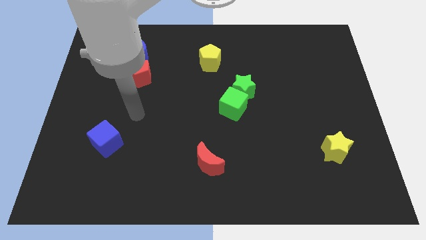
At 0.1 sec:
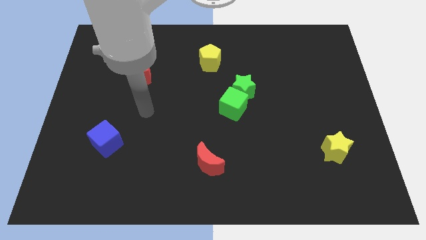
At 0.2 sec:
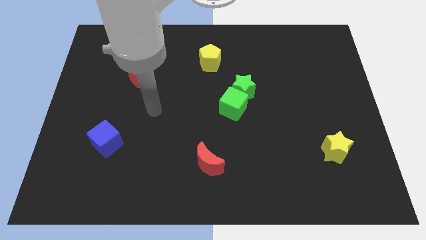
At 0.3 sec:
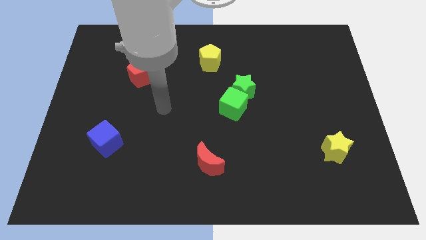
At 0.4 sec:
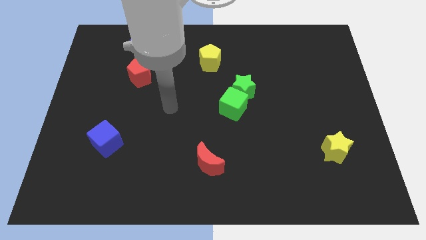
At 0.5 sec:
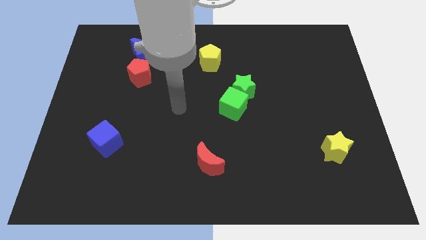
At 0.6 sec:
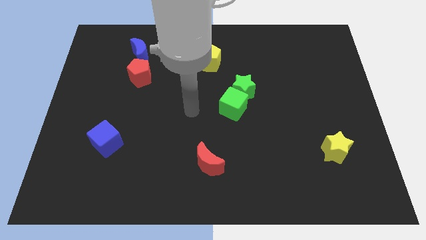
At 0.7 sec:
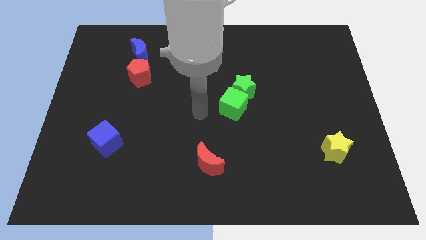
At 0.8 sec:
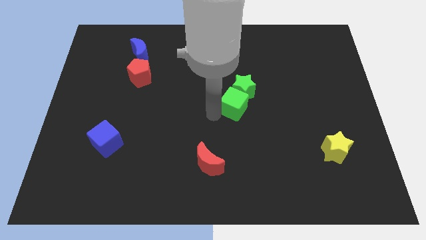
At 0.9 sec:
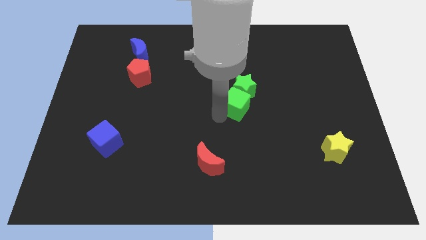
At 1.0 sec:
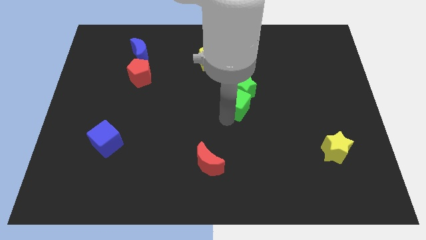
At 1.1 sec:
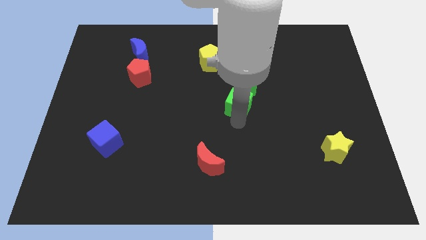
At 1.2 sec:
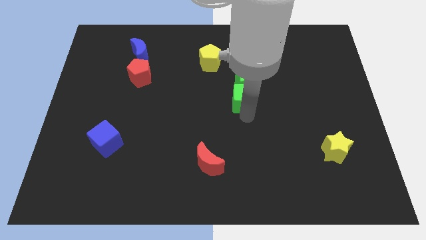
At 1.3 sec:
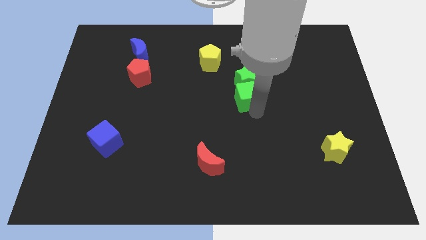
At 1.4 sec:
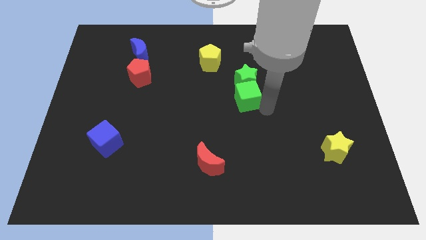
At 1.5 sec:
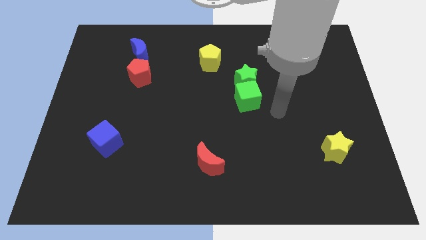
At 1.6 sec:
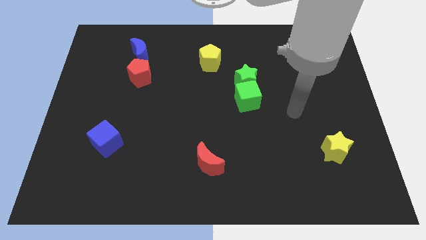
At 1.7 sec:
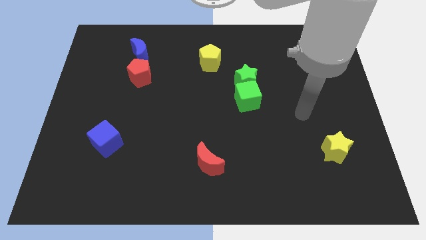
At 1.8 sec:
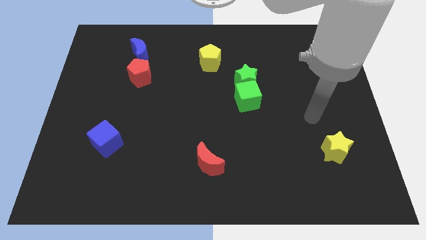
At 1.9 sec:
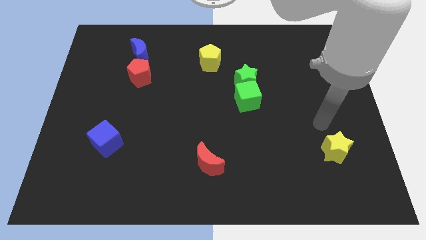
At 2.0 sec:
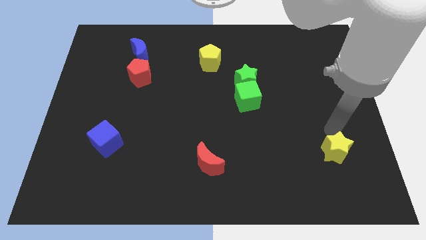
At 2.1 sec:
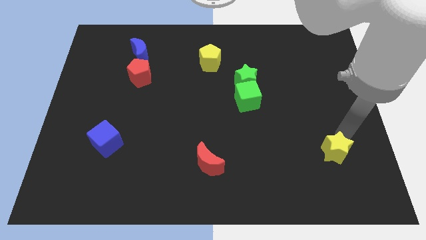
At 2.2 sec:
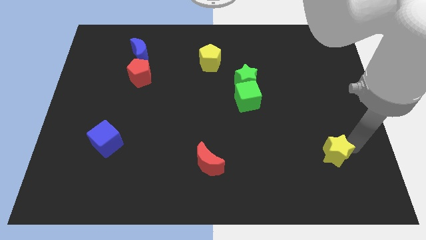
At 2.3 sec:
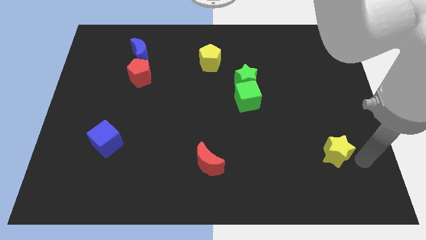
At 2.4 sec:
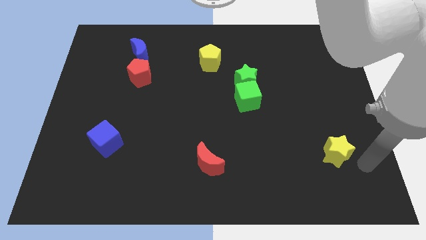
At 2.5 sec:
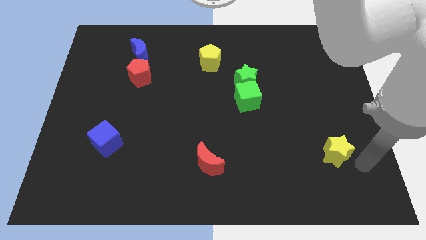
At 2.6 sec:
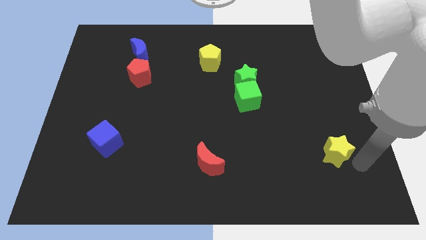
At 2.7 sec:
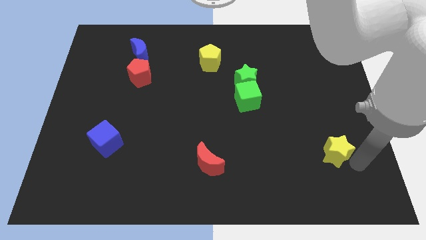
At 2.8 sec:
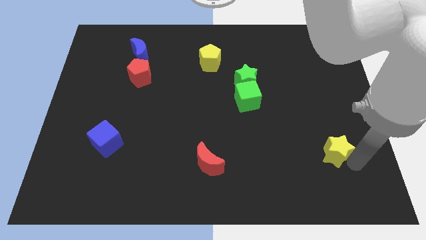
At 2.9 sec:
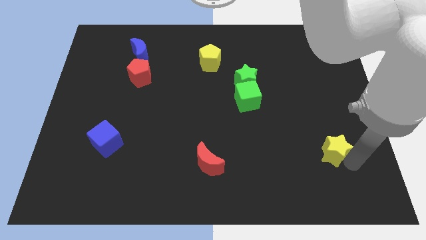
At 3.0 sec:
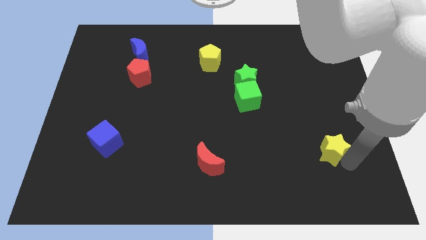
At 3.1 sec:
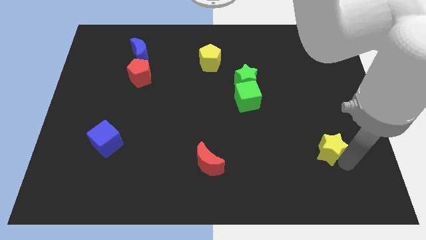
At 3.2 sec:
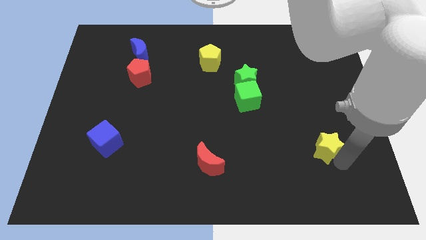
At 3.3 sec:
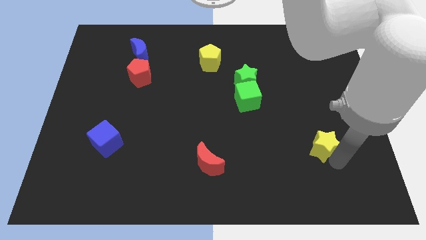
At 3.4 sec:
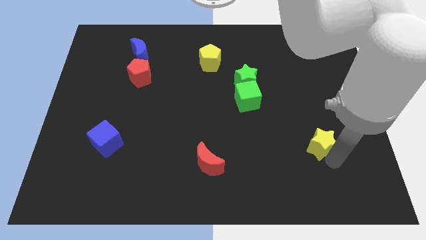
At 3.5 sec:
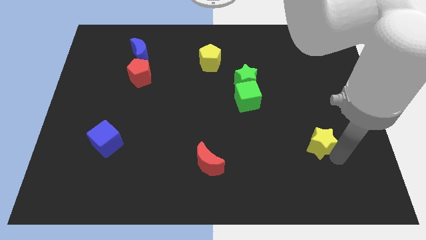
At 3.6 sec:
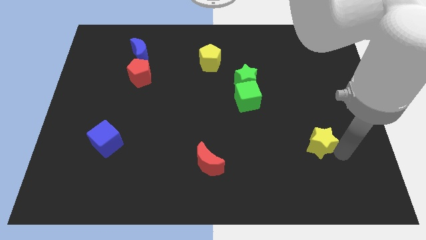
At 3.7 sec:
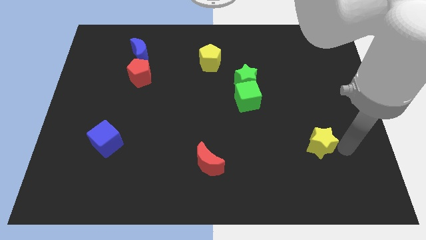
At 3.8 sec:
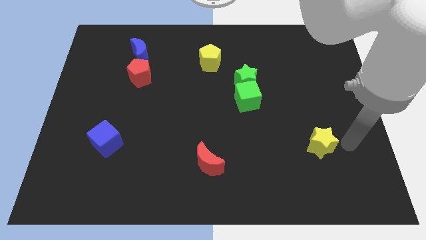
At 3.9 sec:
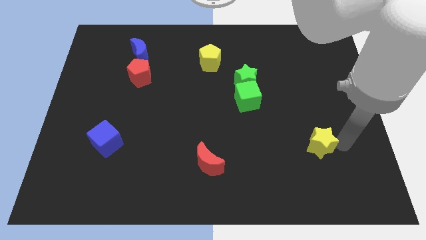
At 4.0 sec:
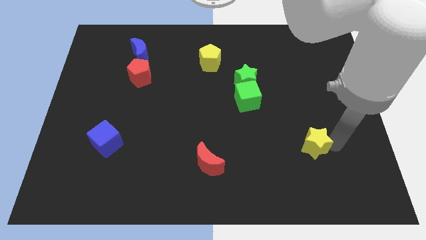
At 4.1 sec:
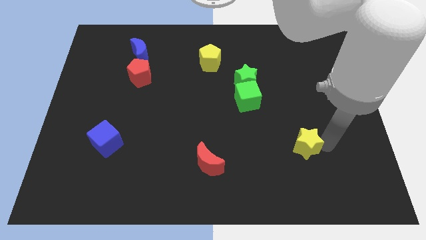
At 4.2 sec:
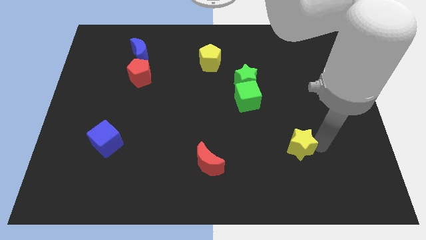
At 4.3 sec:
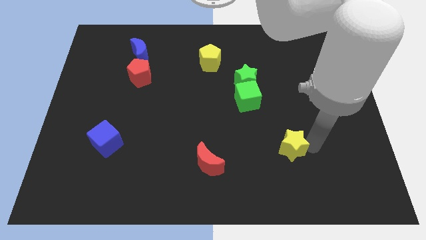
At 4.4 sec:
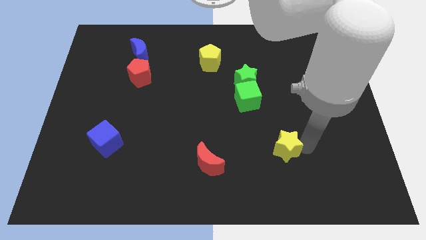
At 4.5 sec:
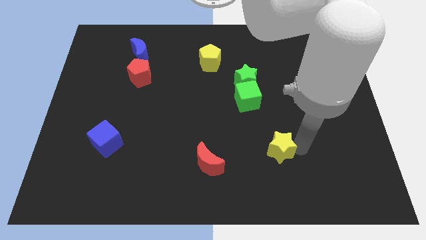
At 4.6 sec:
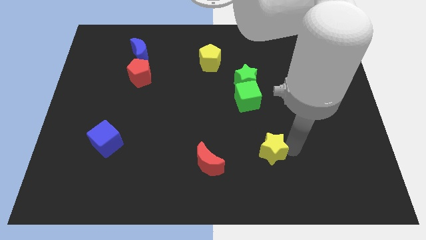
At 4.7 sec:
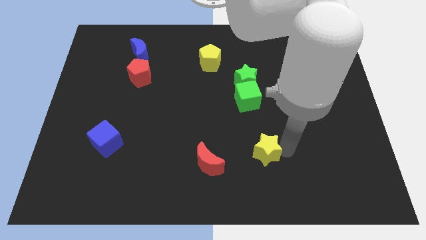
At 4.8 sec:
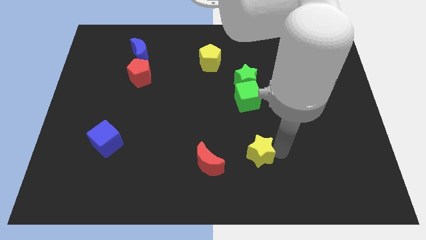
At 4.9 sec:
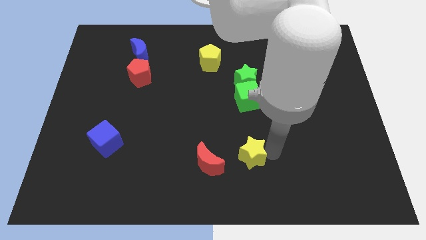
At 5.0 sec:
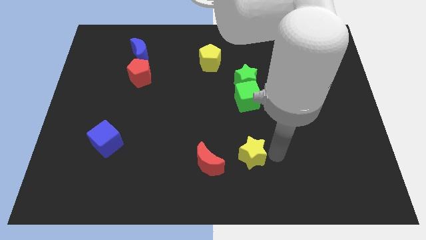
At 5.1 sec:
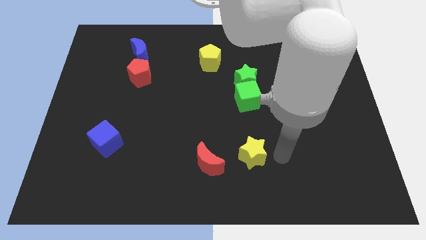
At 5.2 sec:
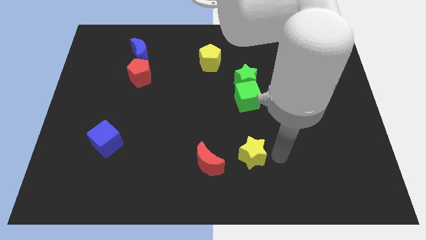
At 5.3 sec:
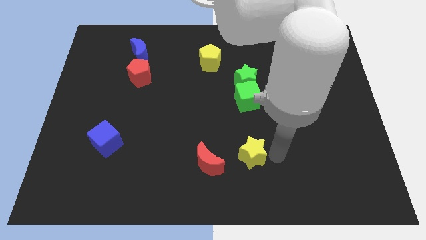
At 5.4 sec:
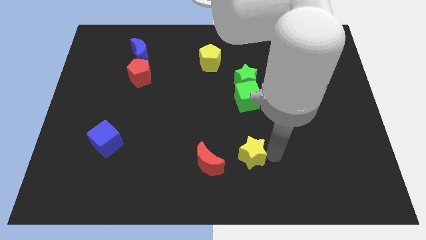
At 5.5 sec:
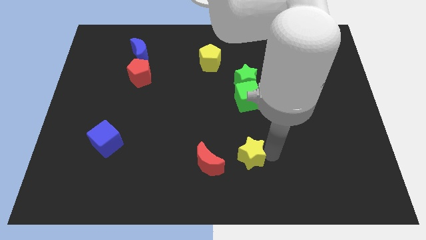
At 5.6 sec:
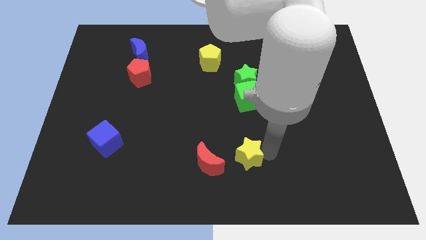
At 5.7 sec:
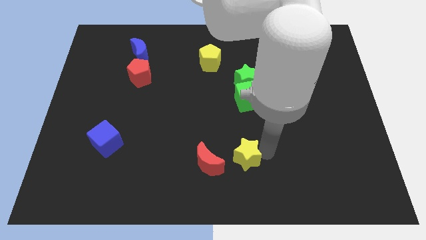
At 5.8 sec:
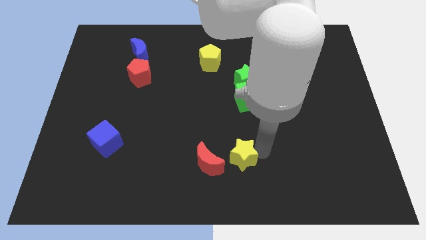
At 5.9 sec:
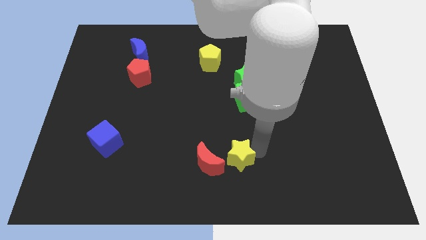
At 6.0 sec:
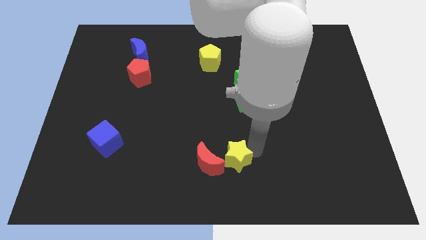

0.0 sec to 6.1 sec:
push the yellow star to the red moon

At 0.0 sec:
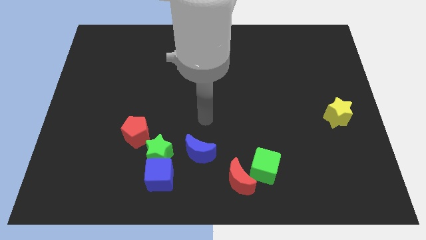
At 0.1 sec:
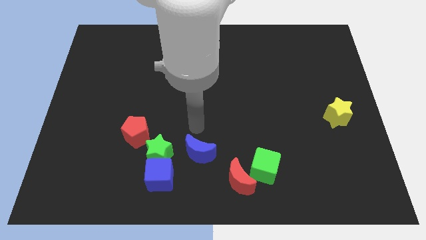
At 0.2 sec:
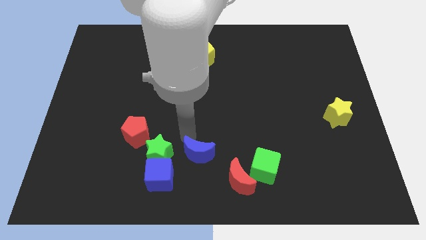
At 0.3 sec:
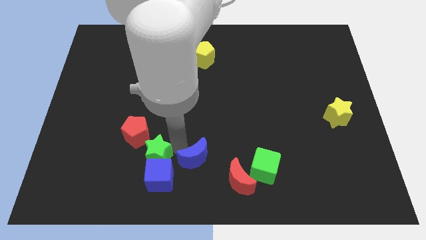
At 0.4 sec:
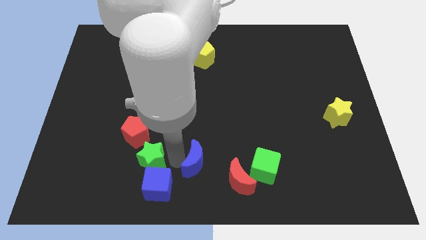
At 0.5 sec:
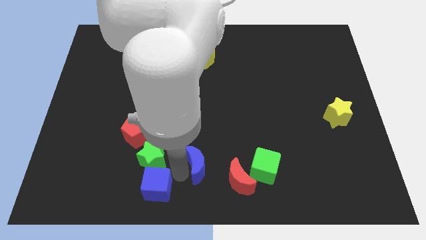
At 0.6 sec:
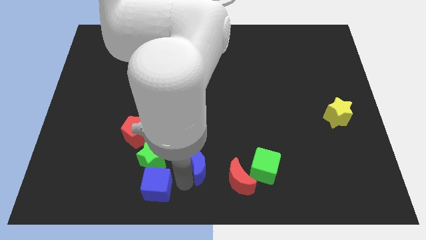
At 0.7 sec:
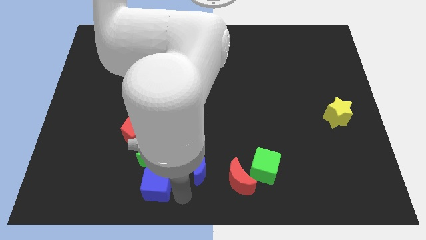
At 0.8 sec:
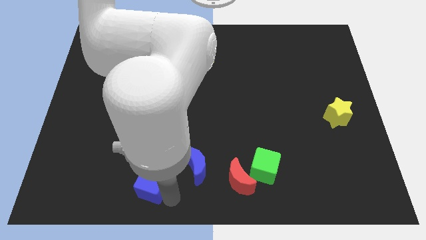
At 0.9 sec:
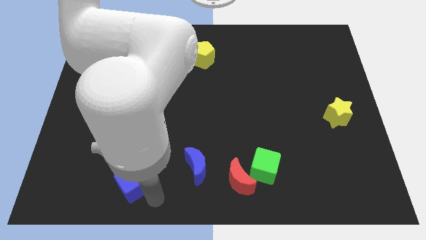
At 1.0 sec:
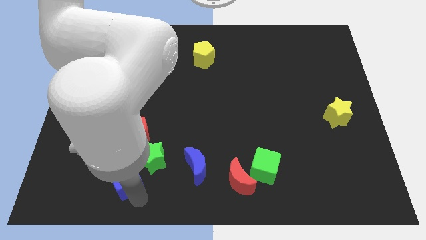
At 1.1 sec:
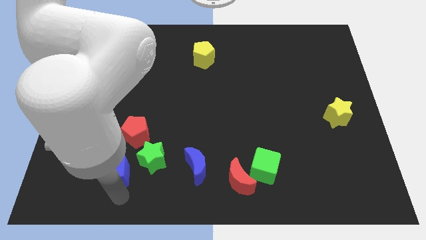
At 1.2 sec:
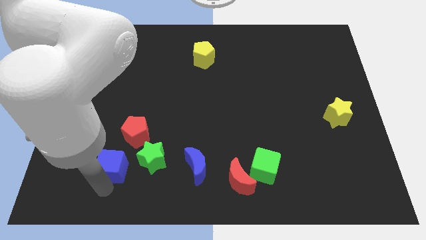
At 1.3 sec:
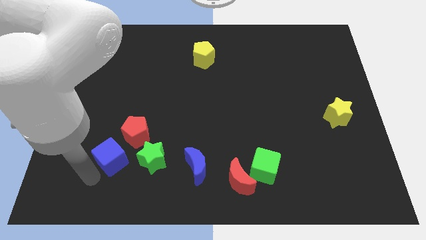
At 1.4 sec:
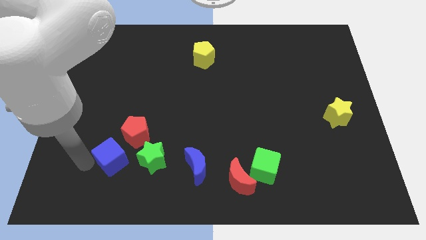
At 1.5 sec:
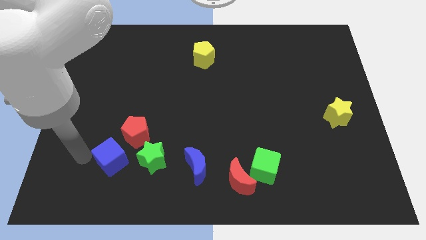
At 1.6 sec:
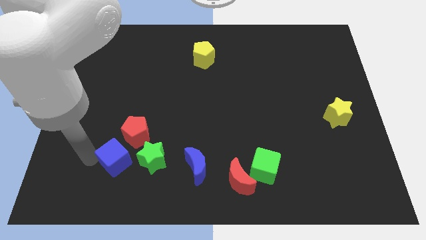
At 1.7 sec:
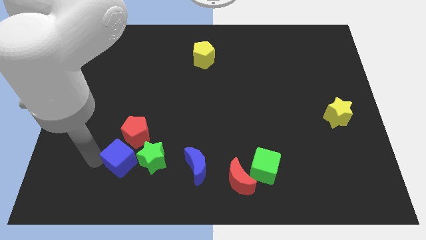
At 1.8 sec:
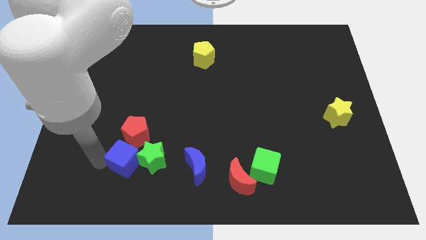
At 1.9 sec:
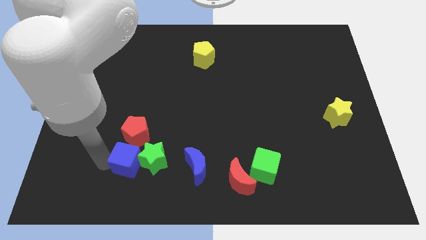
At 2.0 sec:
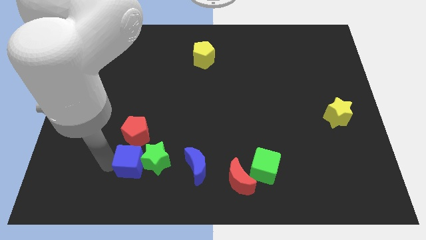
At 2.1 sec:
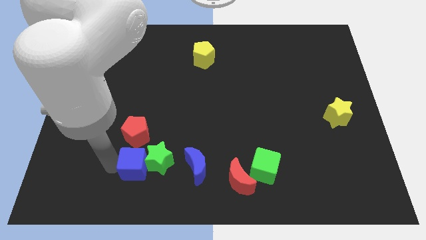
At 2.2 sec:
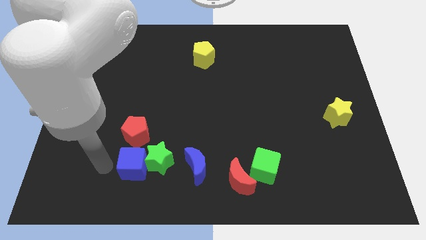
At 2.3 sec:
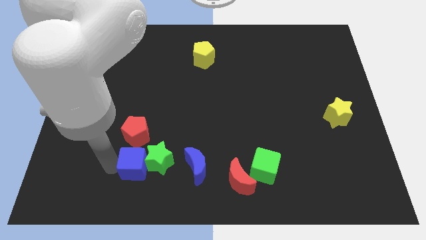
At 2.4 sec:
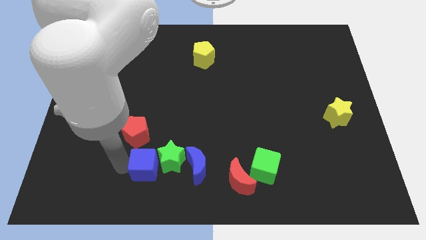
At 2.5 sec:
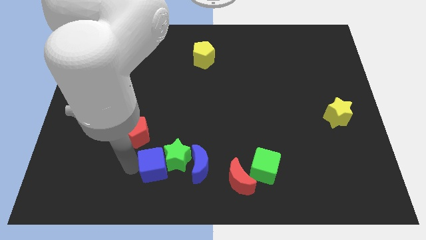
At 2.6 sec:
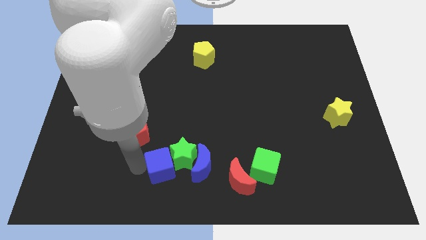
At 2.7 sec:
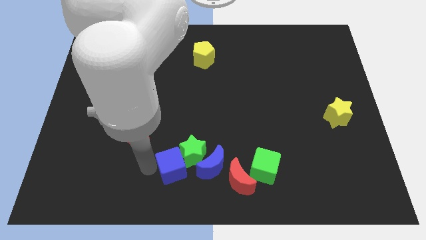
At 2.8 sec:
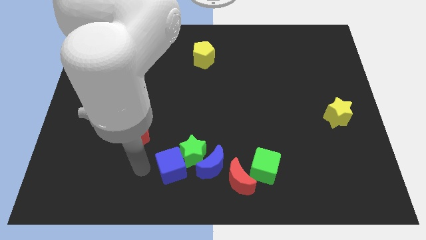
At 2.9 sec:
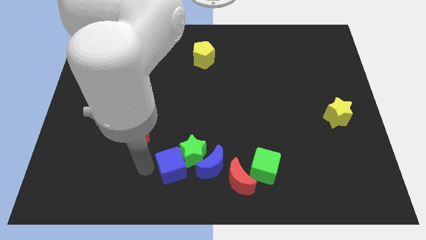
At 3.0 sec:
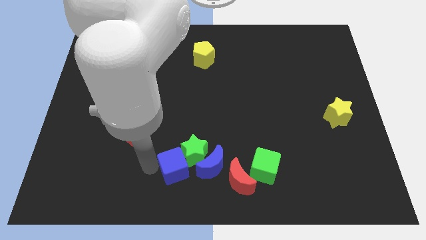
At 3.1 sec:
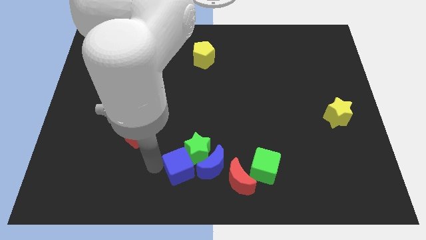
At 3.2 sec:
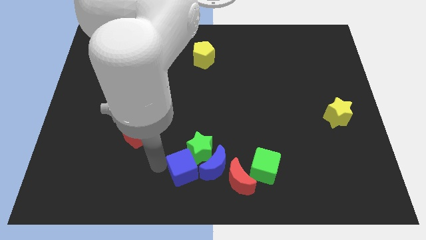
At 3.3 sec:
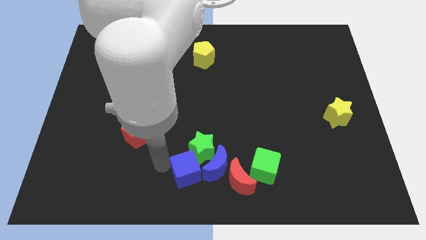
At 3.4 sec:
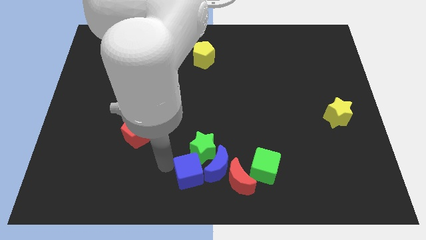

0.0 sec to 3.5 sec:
push the blue cube to the blue moon
